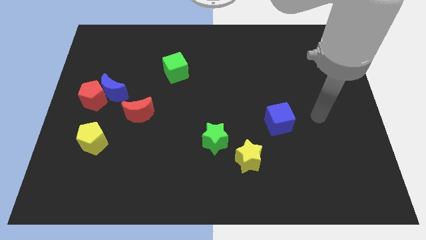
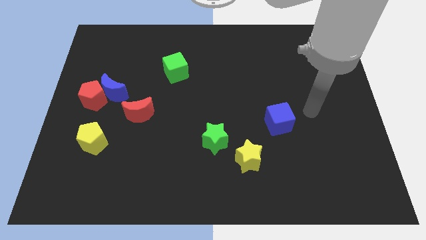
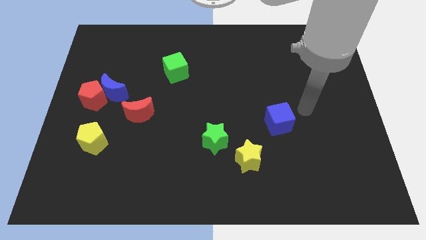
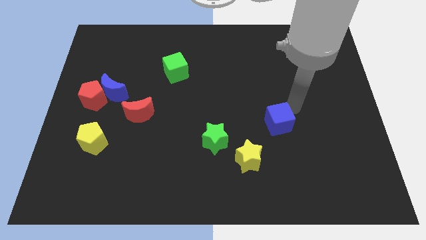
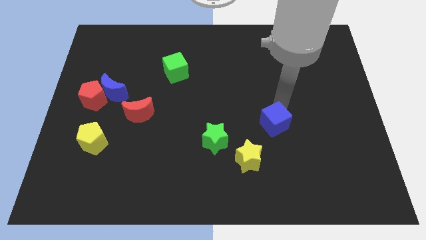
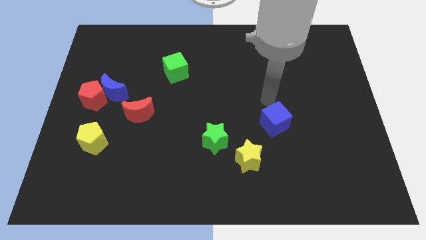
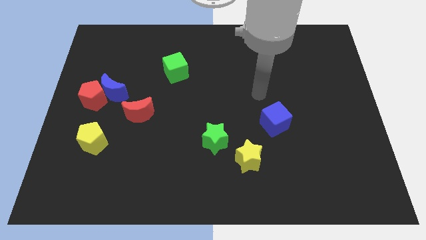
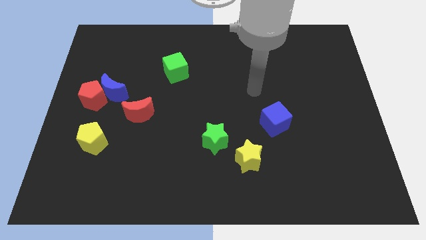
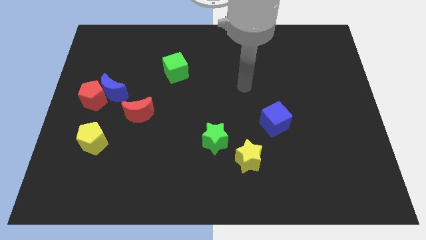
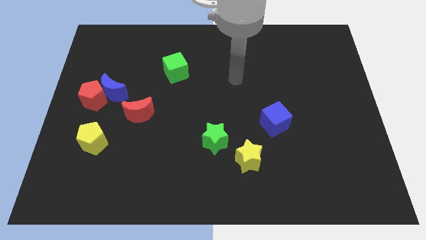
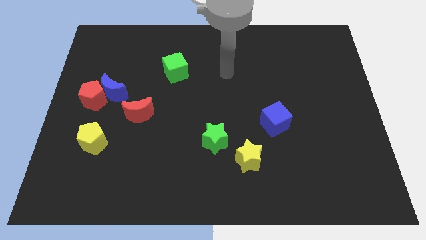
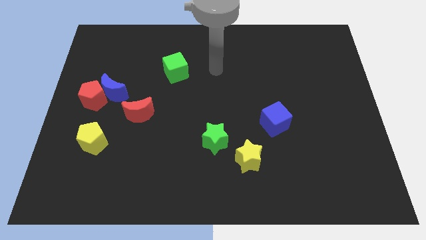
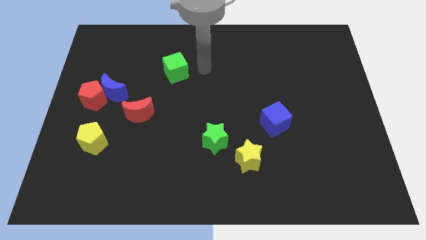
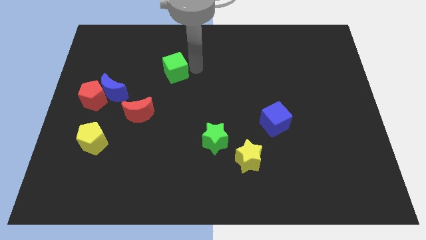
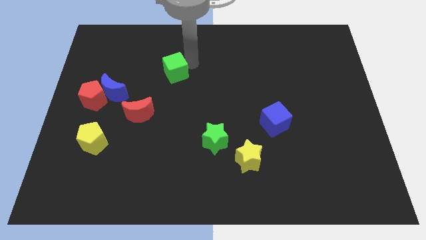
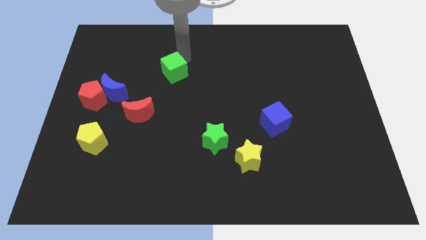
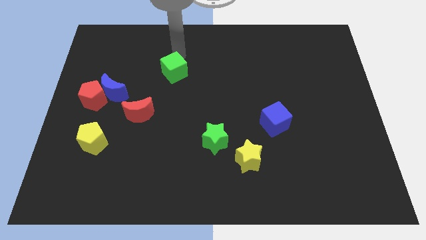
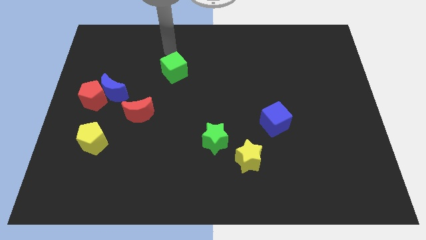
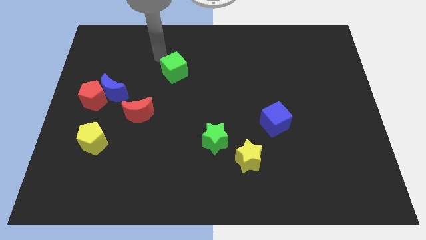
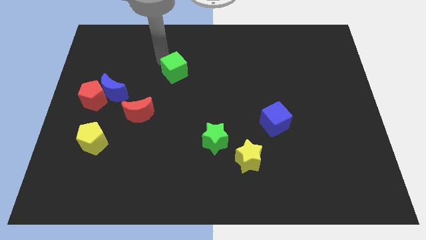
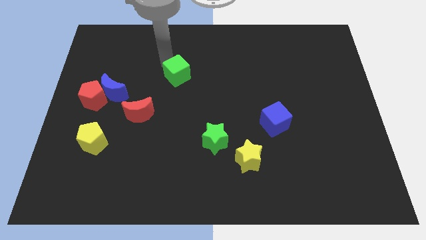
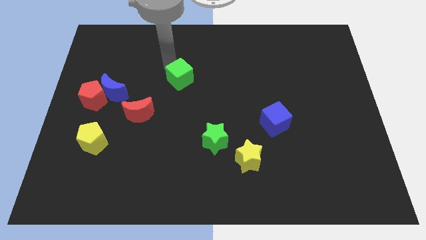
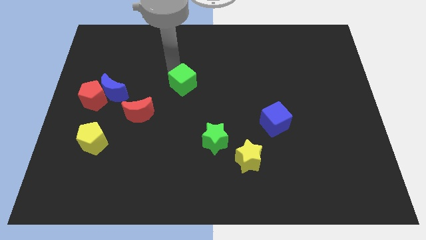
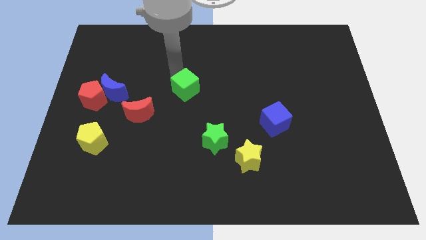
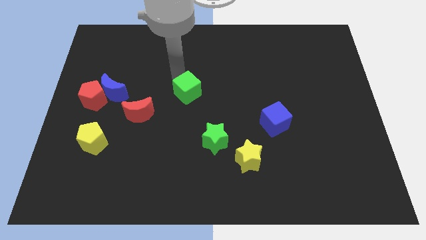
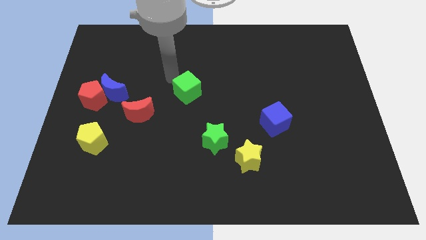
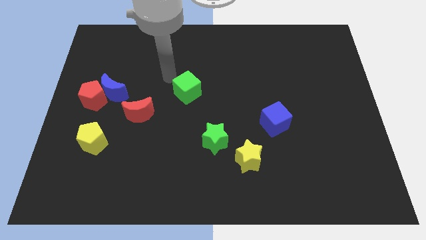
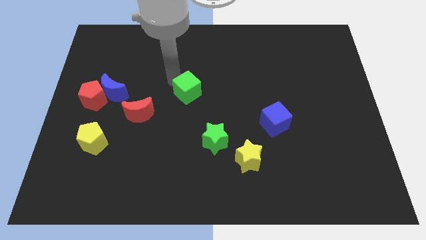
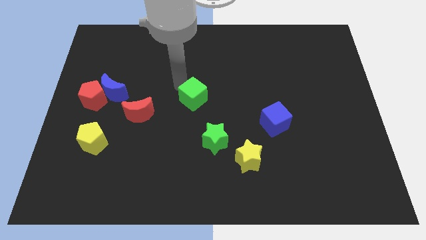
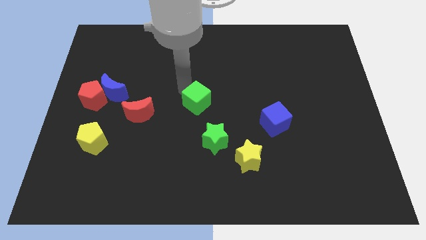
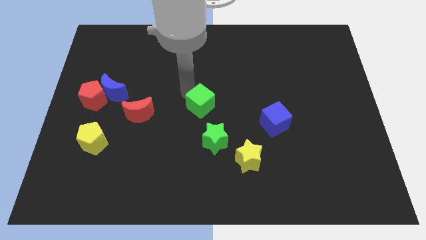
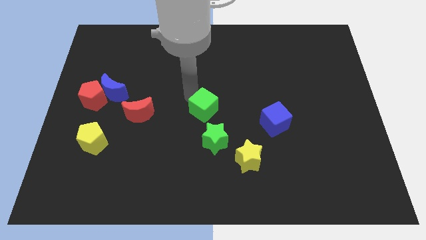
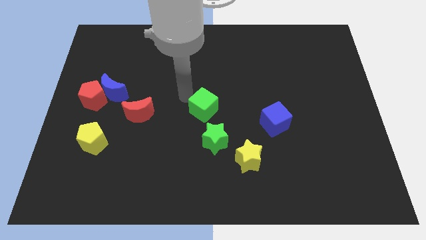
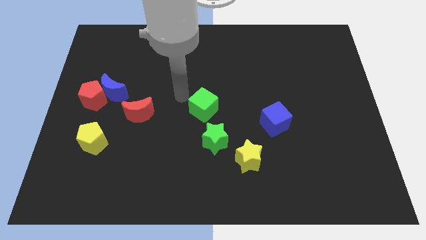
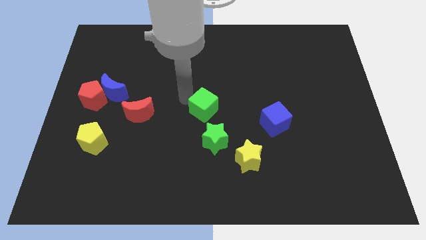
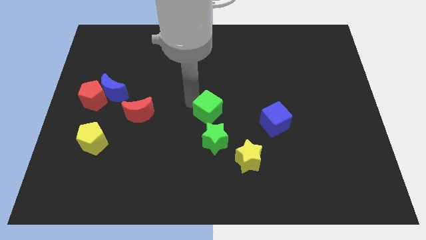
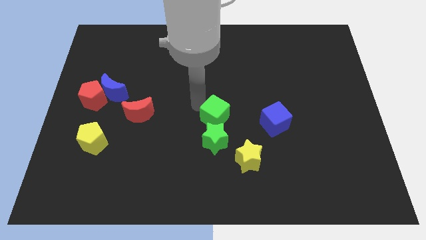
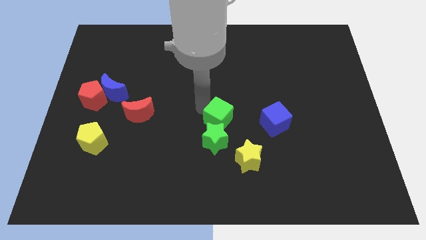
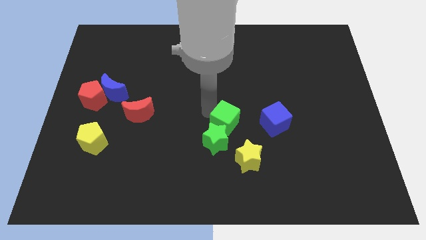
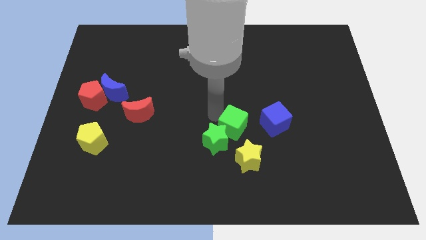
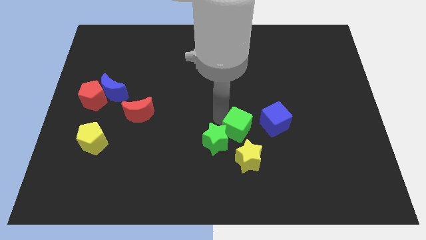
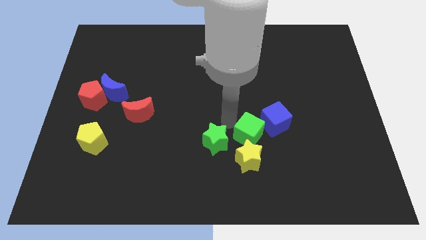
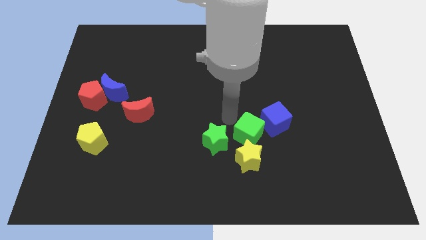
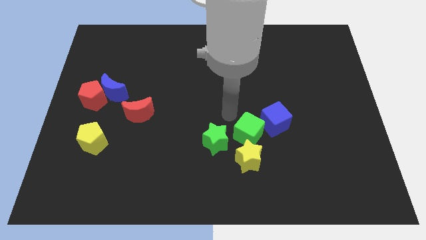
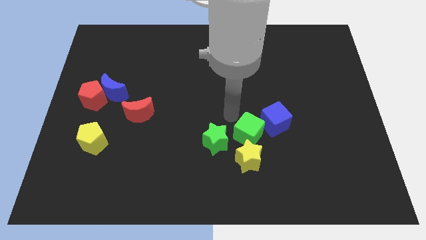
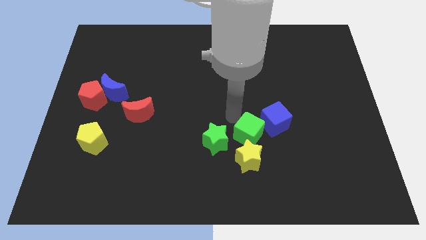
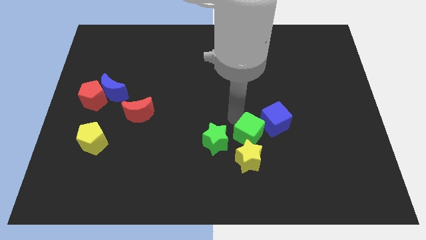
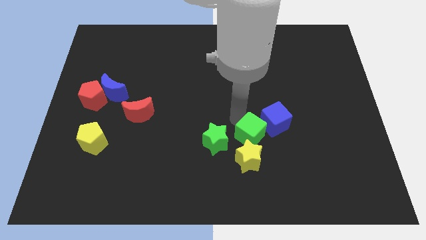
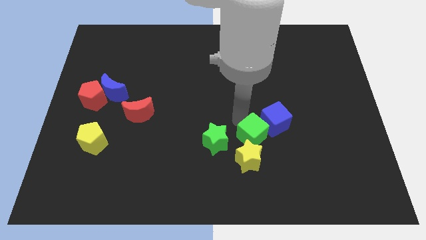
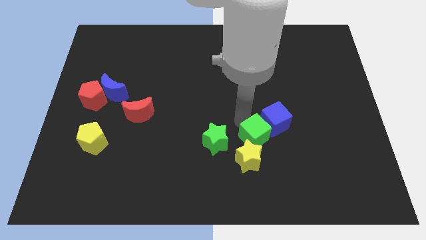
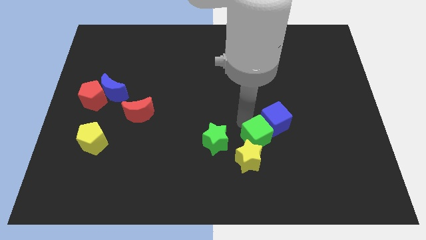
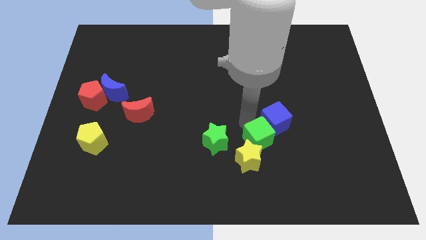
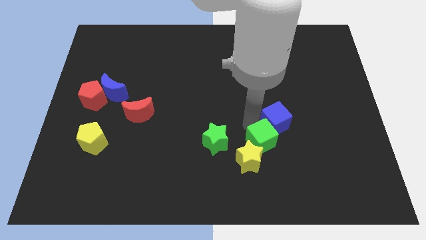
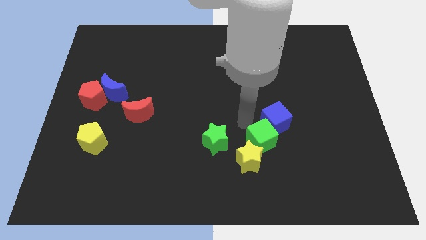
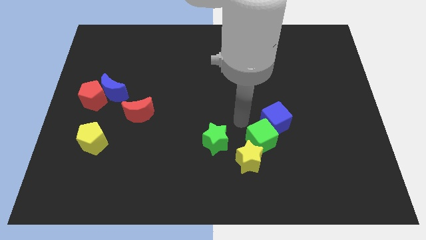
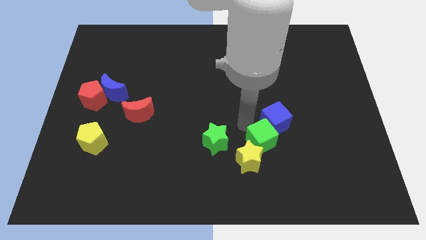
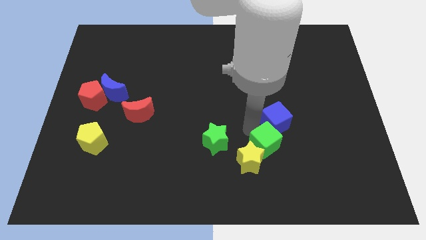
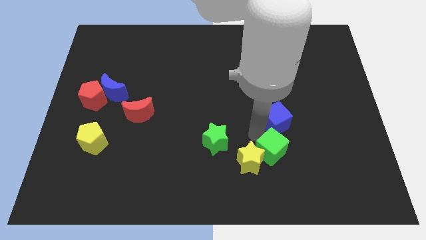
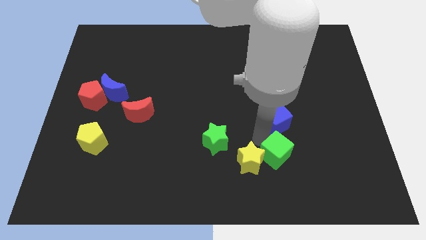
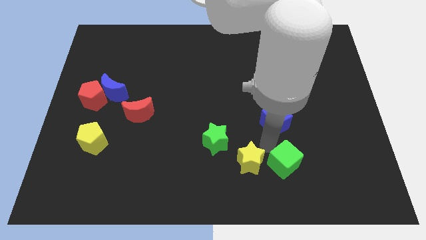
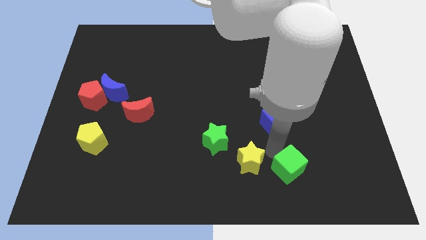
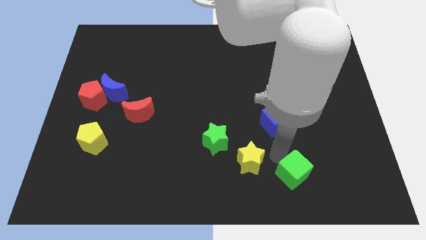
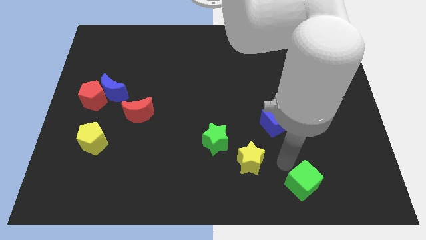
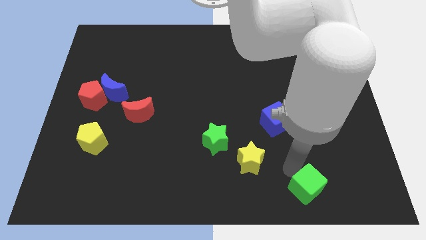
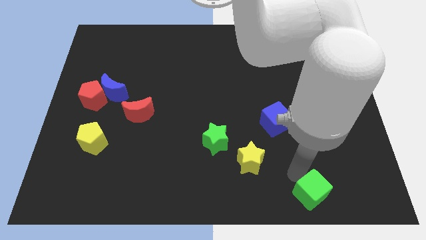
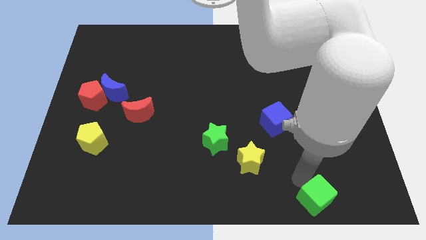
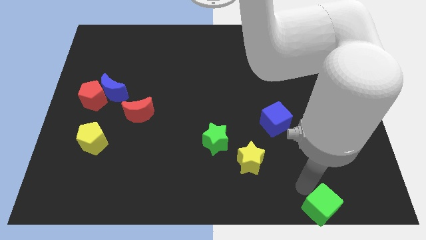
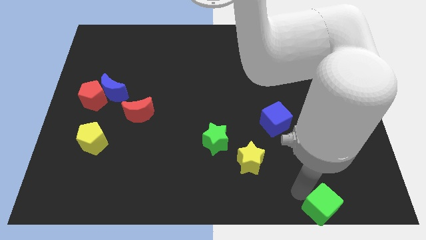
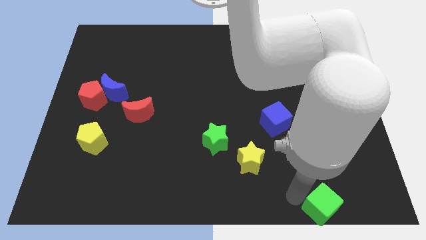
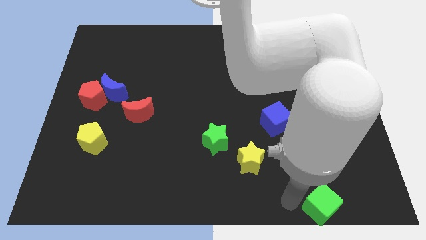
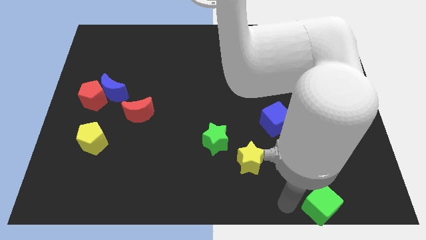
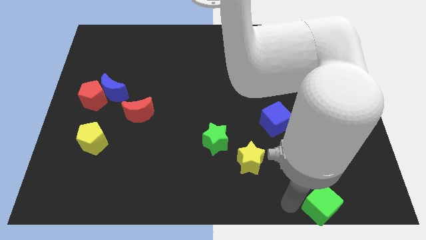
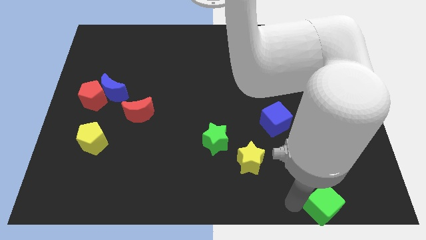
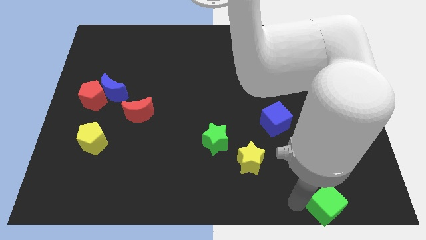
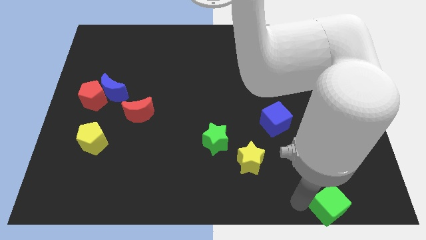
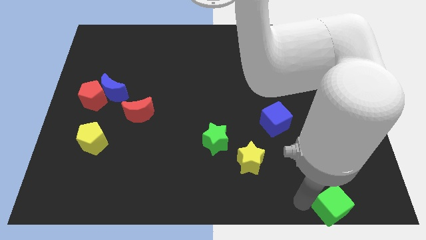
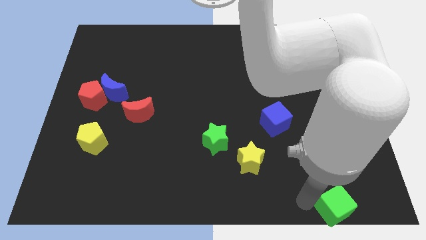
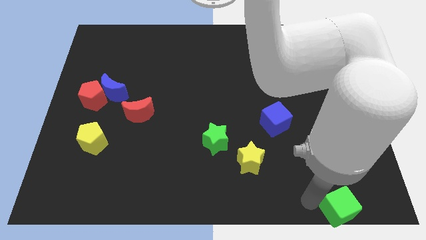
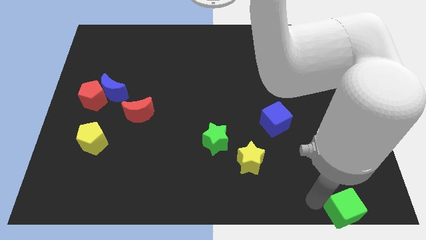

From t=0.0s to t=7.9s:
push the green cube to the lower right corner
